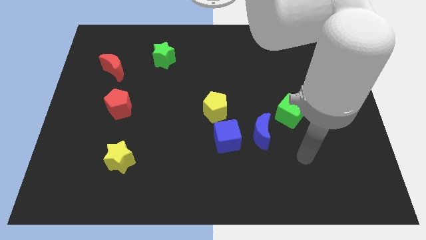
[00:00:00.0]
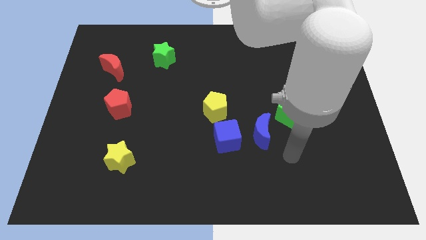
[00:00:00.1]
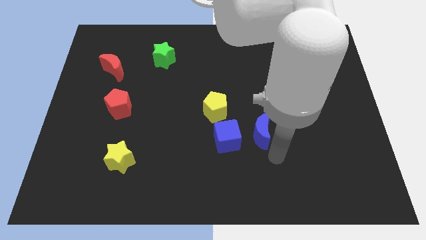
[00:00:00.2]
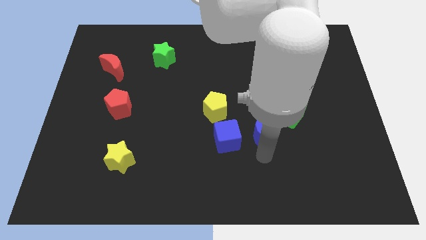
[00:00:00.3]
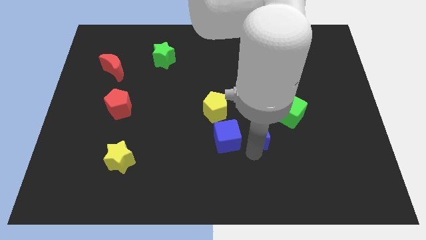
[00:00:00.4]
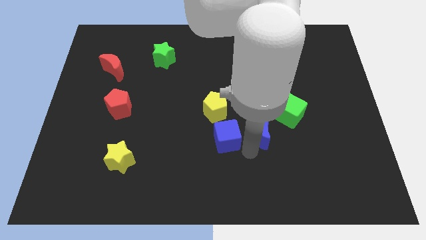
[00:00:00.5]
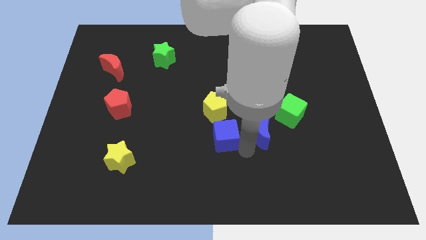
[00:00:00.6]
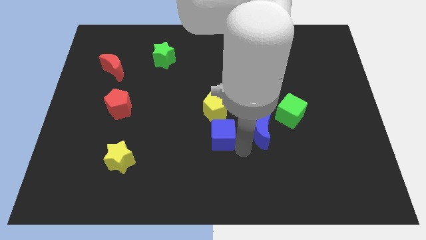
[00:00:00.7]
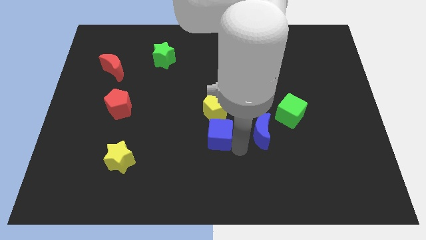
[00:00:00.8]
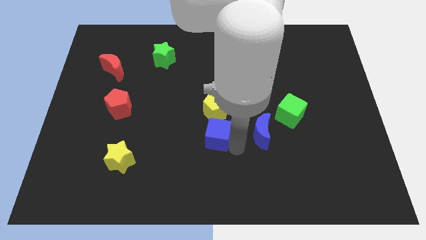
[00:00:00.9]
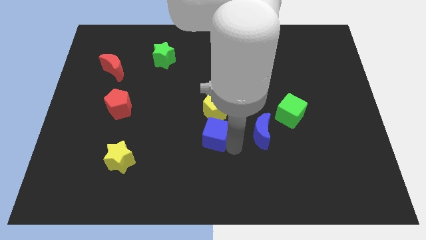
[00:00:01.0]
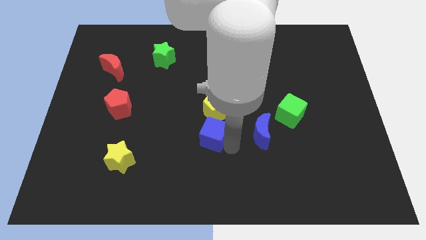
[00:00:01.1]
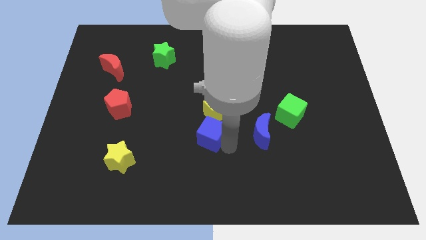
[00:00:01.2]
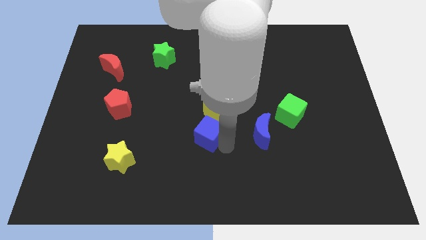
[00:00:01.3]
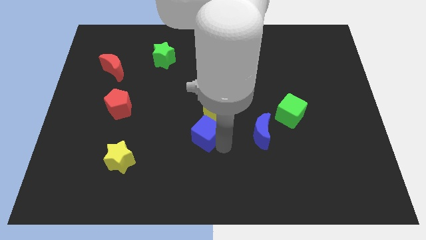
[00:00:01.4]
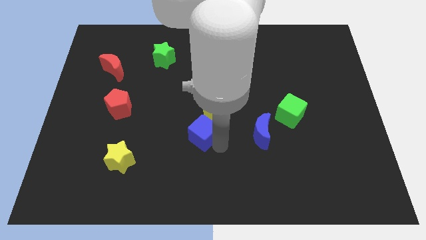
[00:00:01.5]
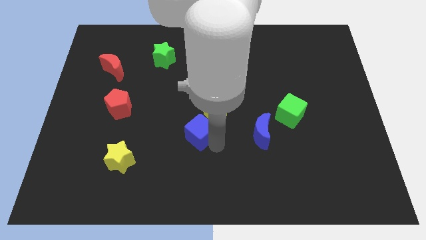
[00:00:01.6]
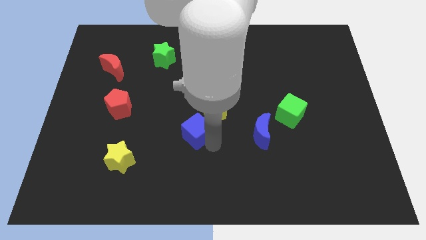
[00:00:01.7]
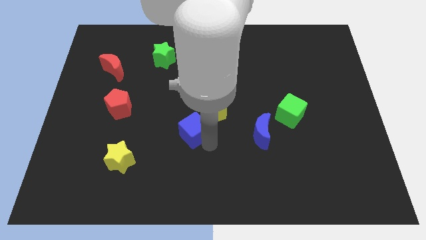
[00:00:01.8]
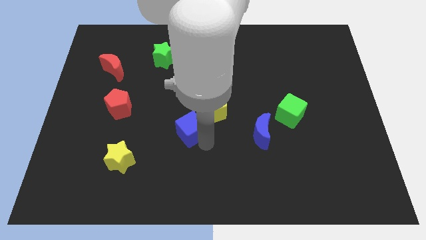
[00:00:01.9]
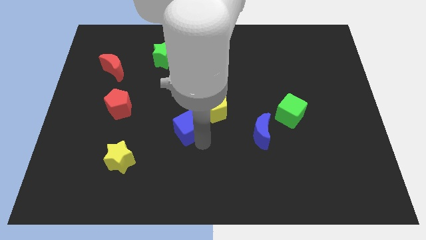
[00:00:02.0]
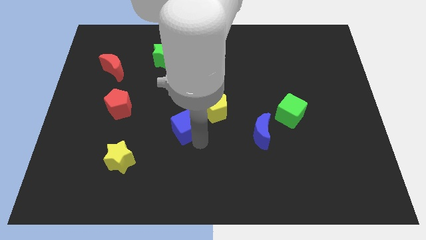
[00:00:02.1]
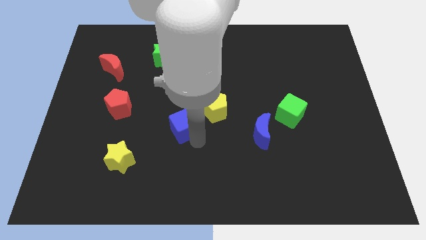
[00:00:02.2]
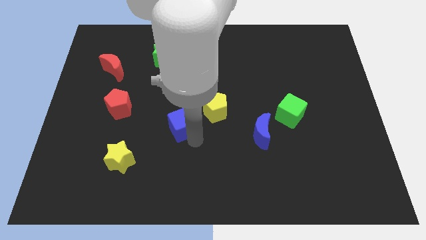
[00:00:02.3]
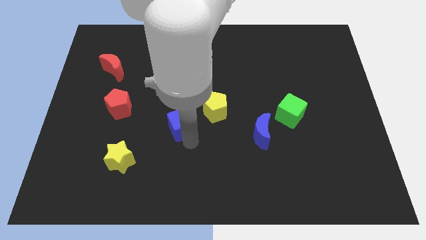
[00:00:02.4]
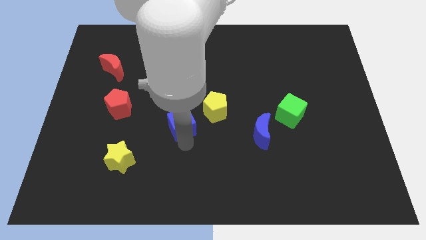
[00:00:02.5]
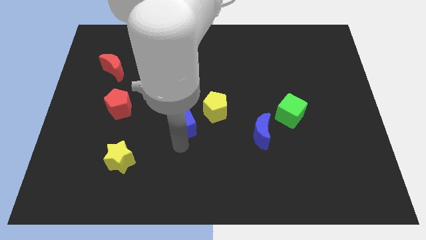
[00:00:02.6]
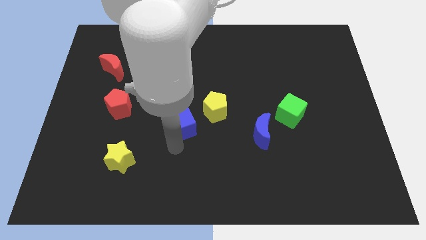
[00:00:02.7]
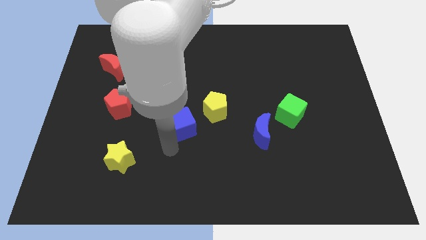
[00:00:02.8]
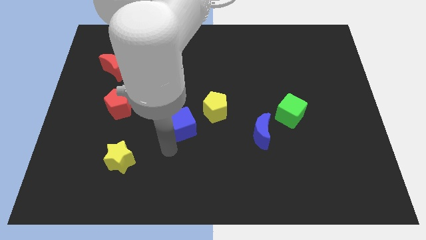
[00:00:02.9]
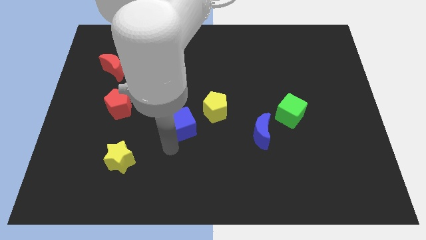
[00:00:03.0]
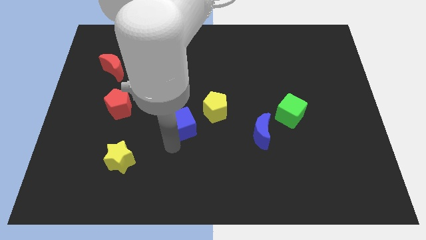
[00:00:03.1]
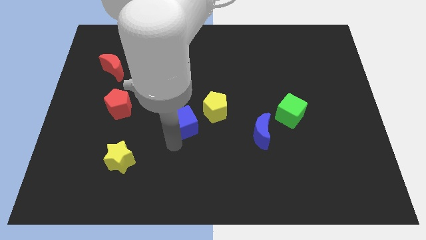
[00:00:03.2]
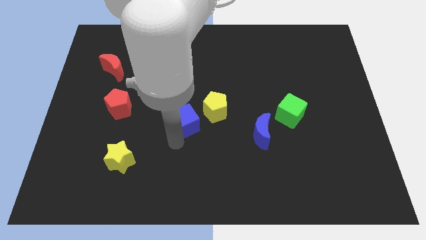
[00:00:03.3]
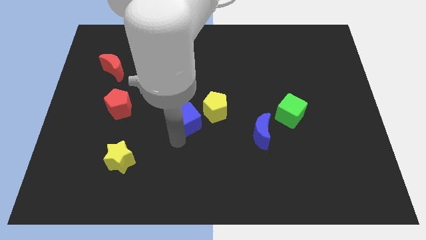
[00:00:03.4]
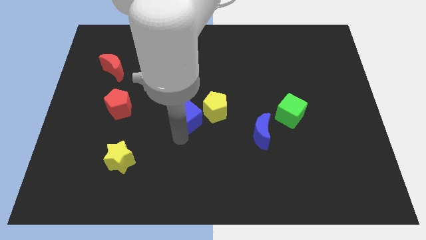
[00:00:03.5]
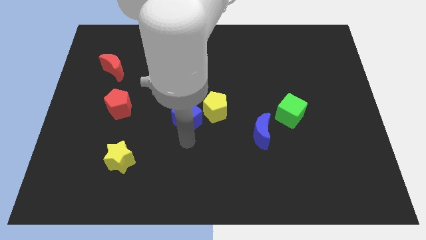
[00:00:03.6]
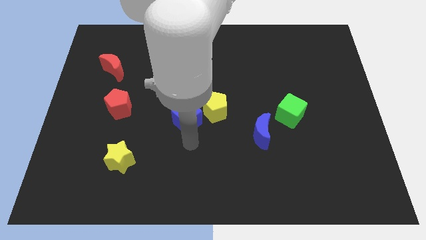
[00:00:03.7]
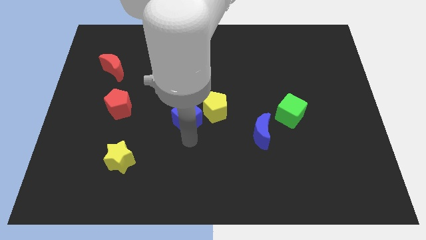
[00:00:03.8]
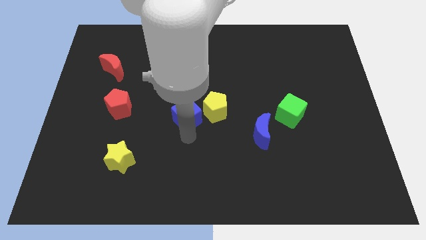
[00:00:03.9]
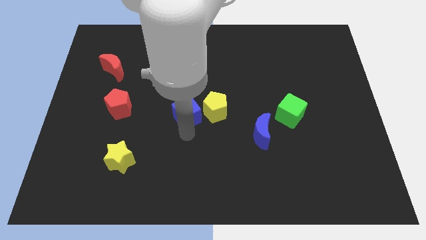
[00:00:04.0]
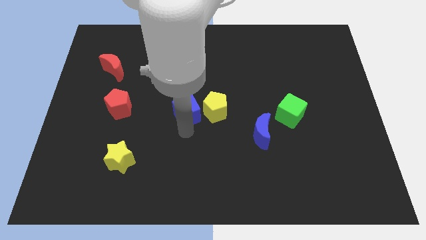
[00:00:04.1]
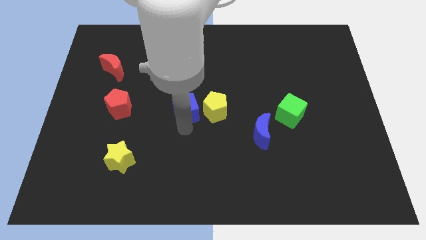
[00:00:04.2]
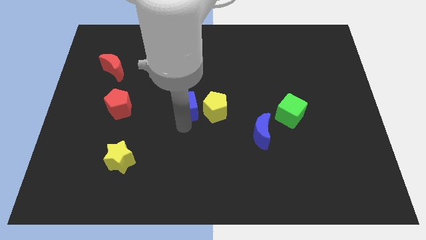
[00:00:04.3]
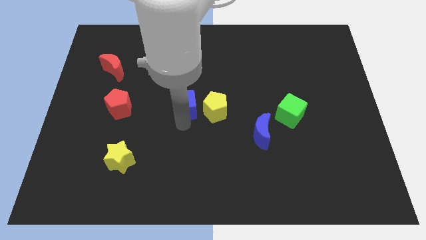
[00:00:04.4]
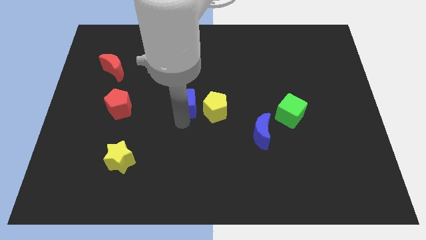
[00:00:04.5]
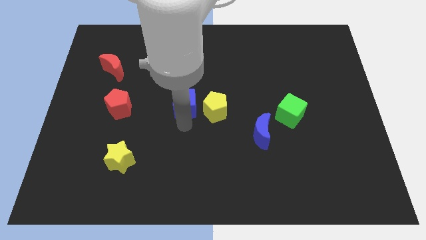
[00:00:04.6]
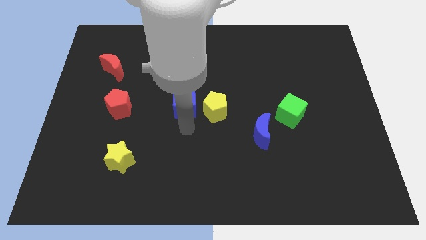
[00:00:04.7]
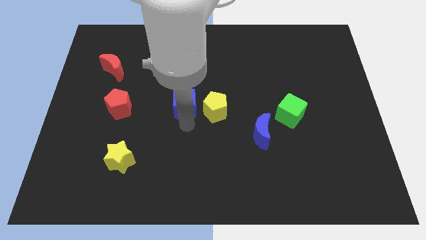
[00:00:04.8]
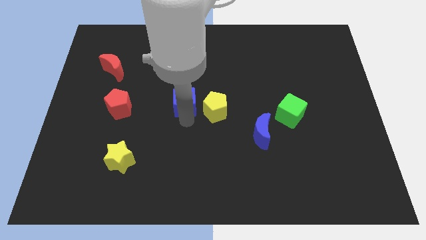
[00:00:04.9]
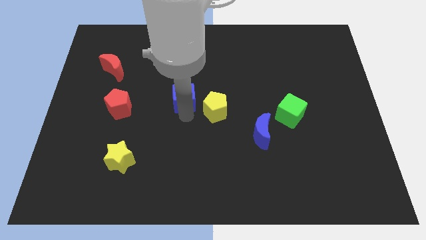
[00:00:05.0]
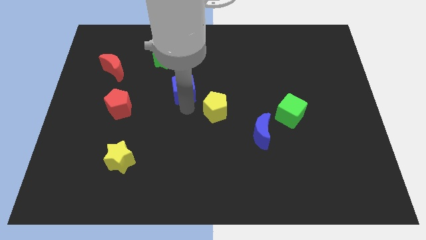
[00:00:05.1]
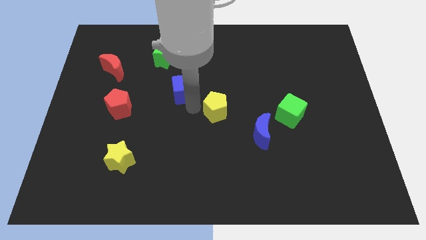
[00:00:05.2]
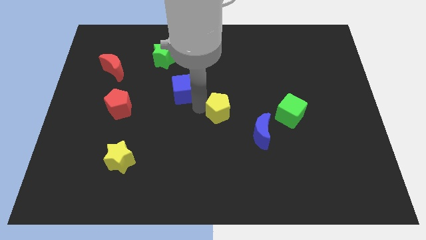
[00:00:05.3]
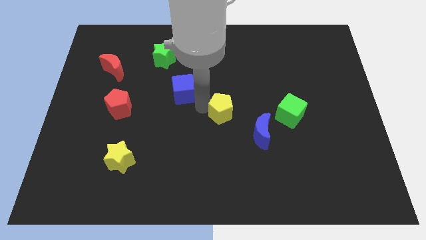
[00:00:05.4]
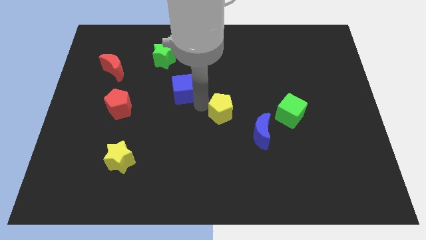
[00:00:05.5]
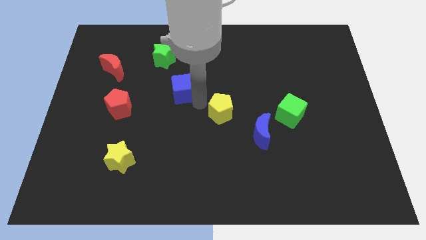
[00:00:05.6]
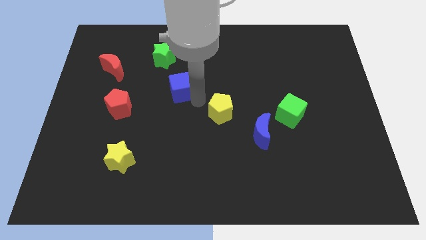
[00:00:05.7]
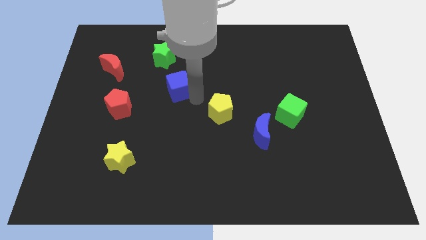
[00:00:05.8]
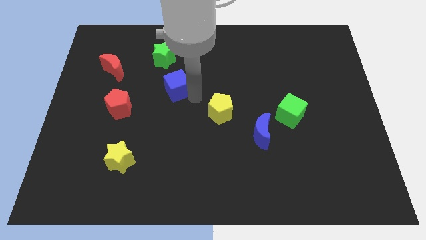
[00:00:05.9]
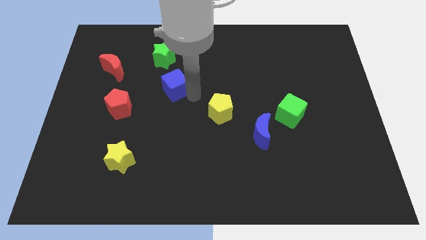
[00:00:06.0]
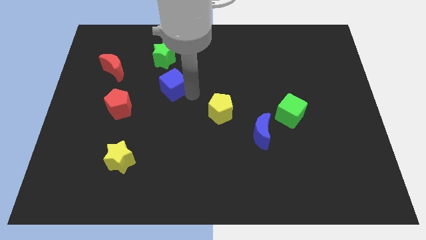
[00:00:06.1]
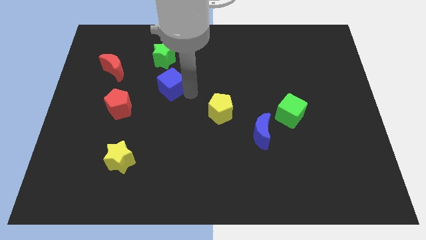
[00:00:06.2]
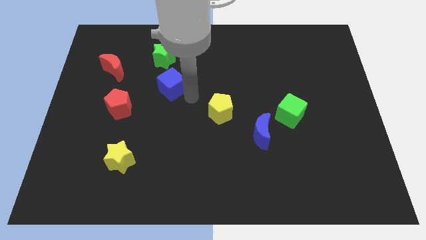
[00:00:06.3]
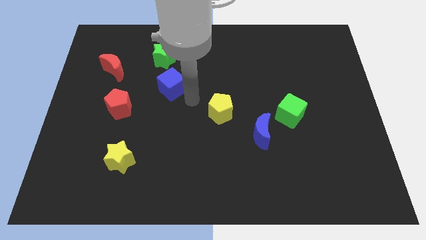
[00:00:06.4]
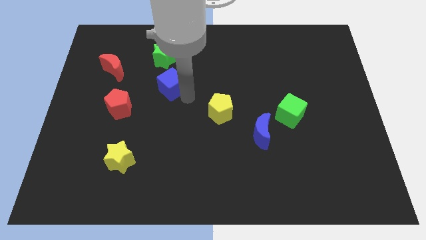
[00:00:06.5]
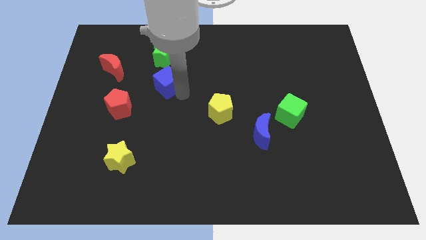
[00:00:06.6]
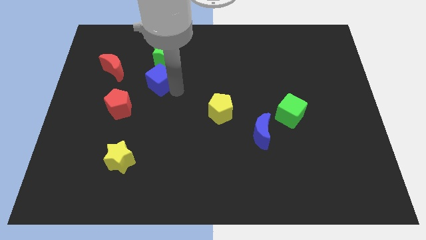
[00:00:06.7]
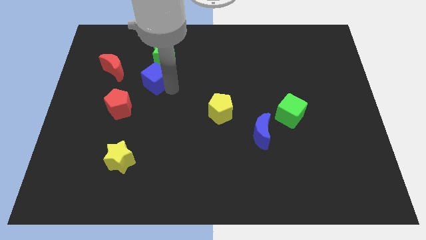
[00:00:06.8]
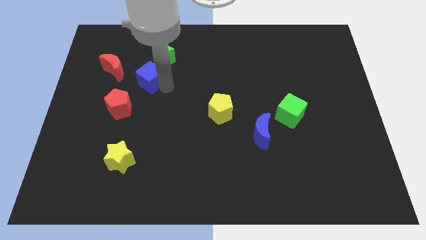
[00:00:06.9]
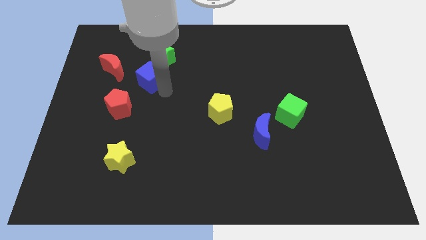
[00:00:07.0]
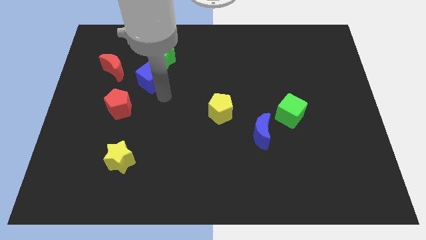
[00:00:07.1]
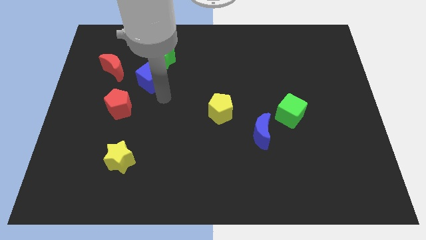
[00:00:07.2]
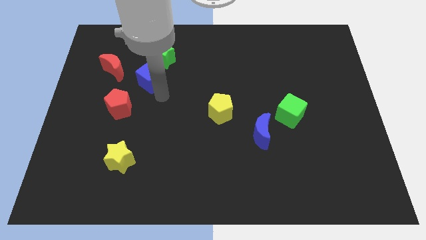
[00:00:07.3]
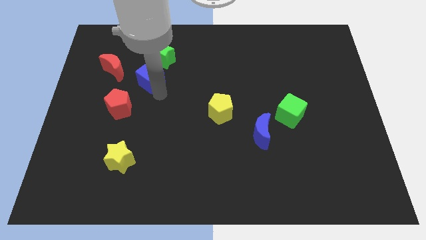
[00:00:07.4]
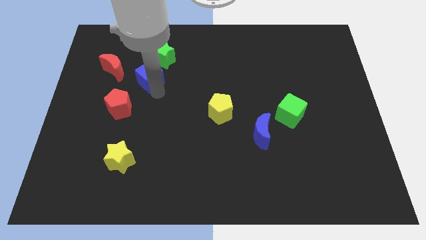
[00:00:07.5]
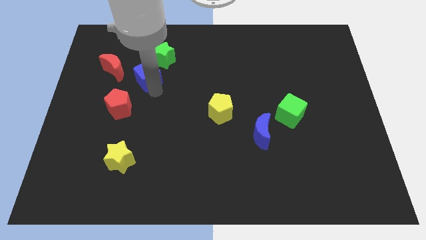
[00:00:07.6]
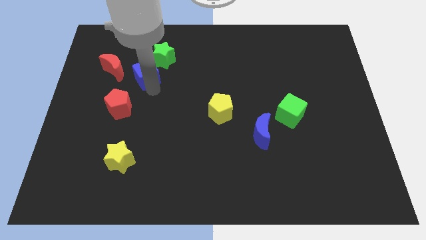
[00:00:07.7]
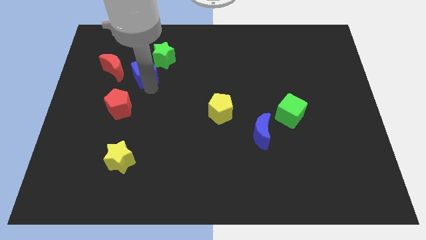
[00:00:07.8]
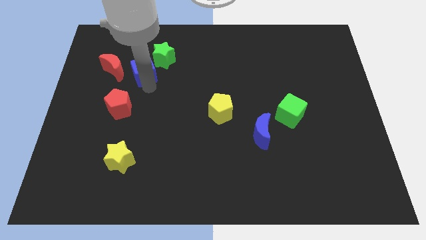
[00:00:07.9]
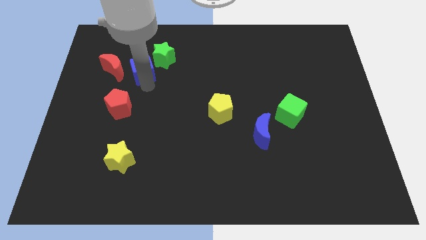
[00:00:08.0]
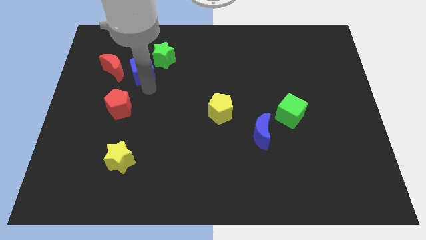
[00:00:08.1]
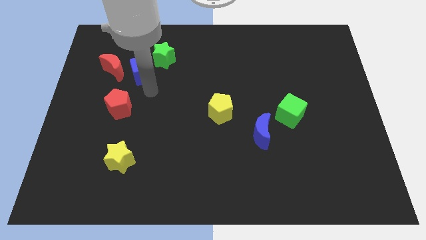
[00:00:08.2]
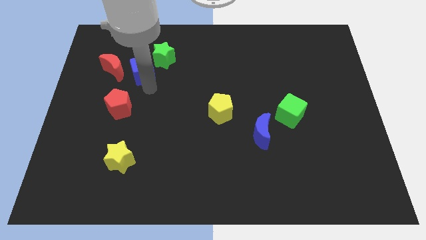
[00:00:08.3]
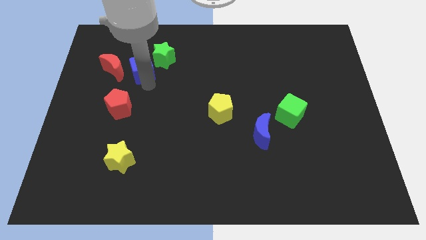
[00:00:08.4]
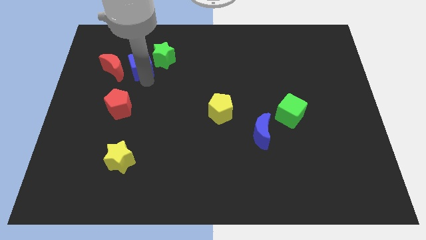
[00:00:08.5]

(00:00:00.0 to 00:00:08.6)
push the blue cube diagonally up and to the right of the red moon
